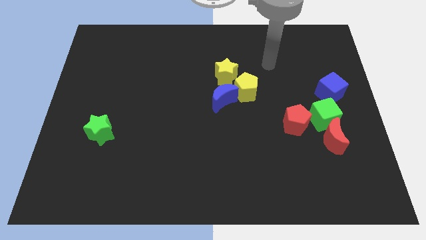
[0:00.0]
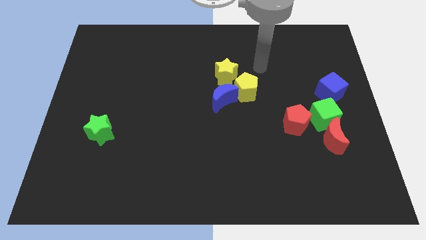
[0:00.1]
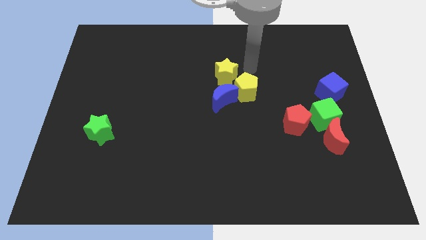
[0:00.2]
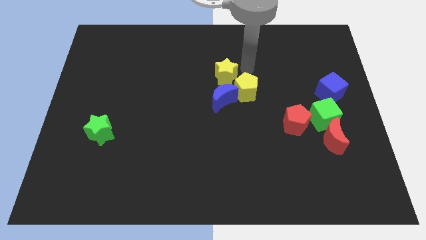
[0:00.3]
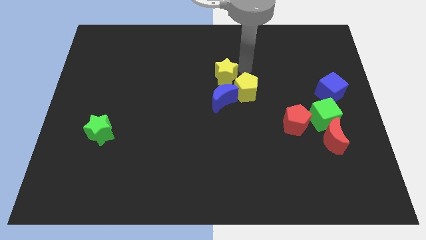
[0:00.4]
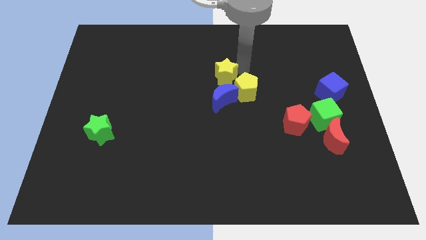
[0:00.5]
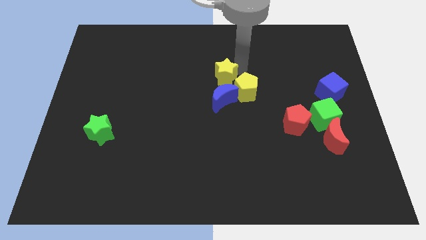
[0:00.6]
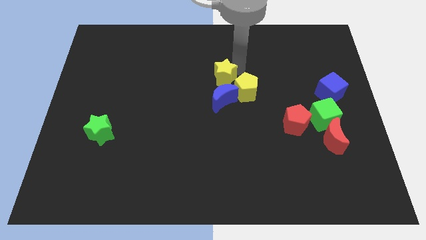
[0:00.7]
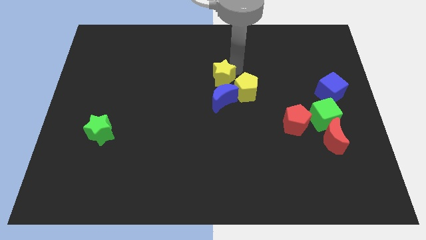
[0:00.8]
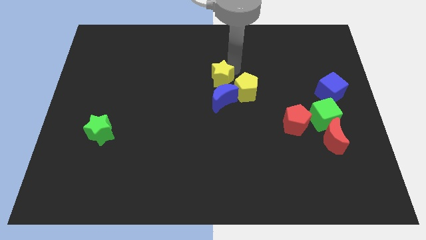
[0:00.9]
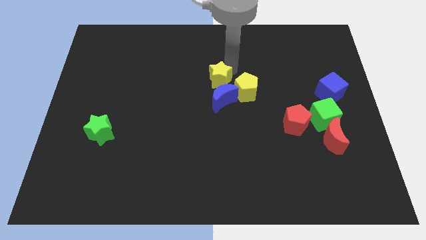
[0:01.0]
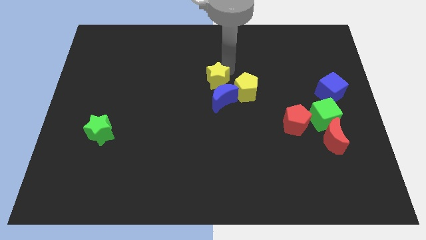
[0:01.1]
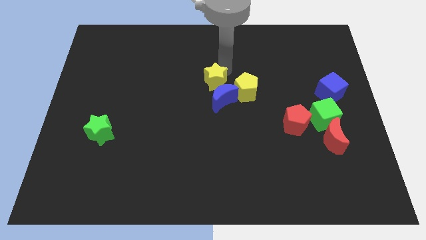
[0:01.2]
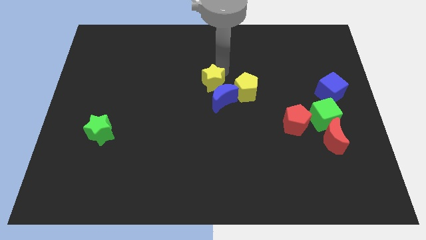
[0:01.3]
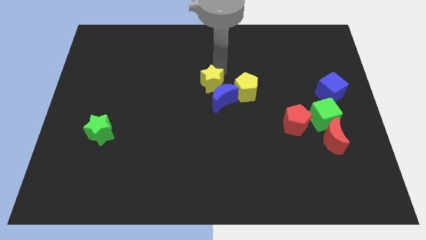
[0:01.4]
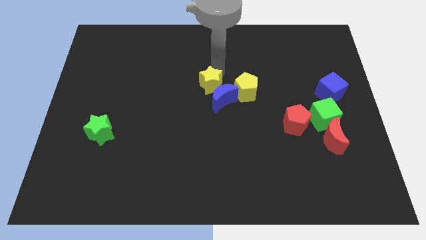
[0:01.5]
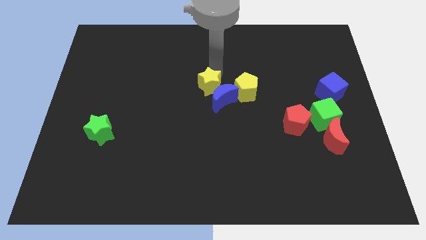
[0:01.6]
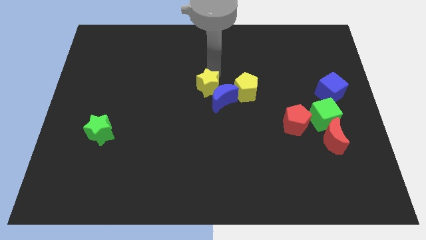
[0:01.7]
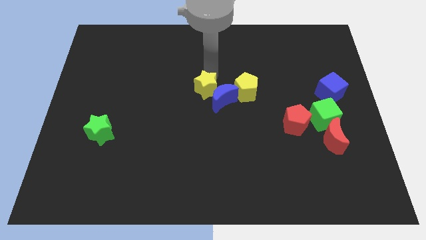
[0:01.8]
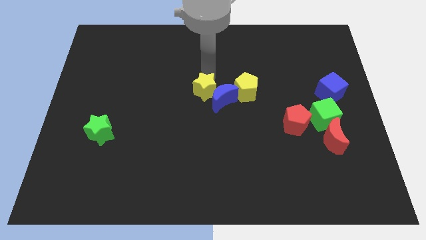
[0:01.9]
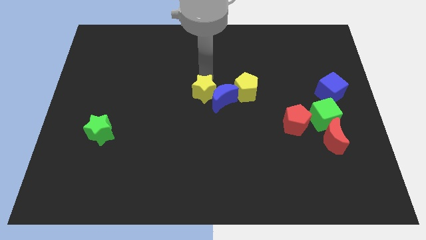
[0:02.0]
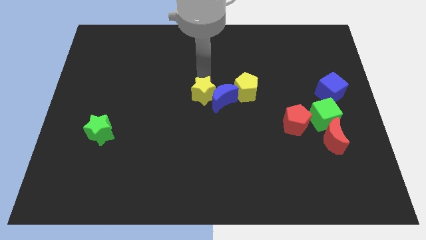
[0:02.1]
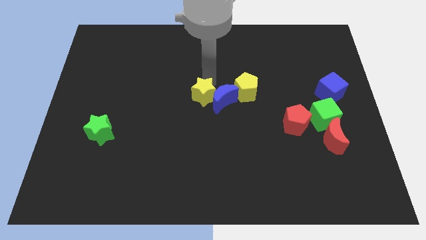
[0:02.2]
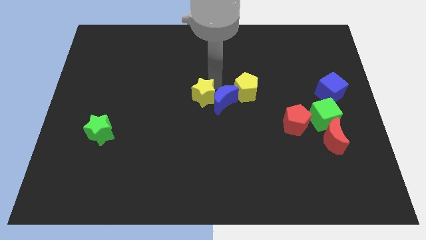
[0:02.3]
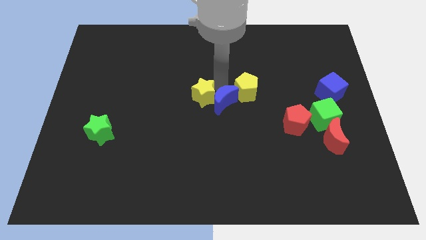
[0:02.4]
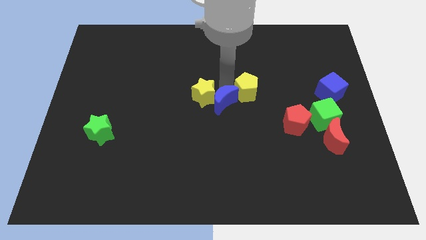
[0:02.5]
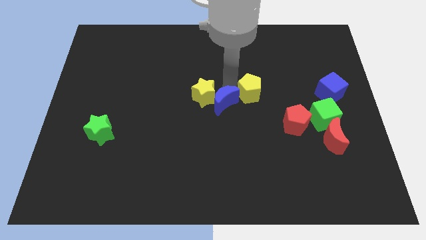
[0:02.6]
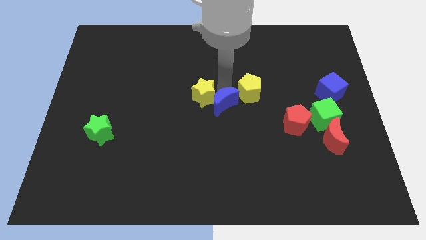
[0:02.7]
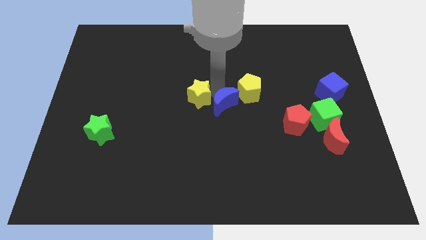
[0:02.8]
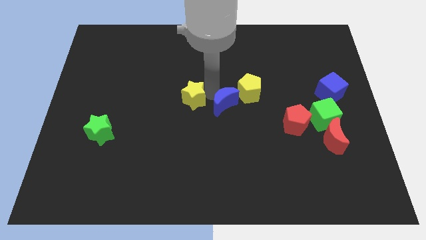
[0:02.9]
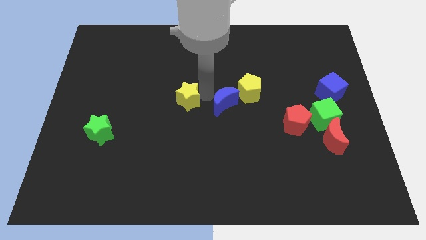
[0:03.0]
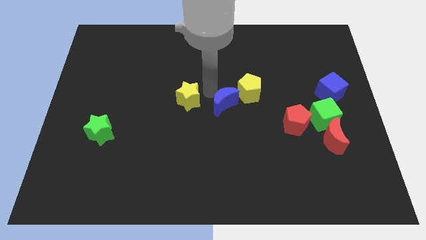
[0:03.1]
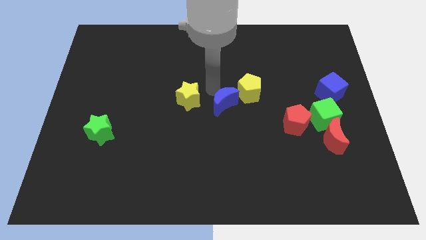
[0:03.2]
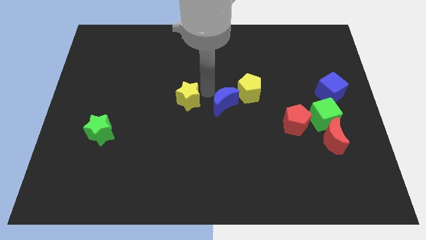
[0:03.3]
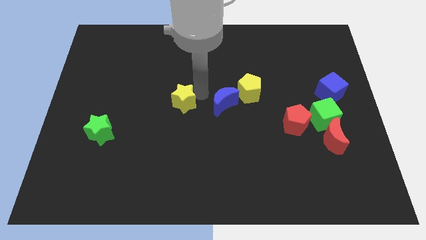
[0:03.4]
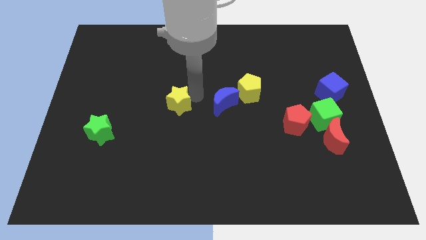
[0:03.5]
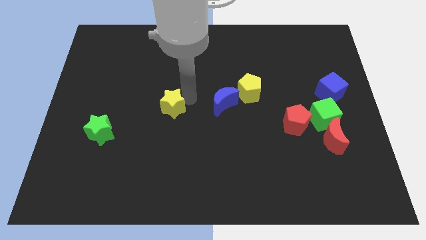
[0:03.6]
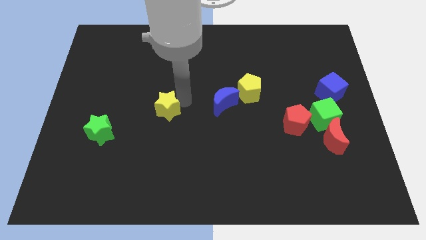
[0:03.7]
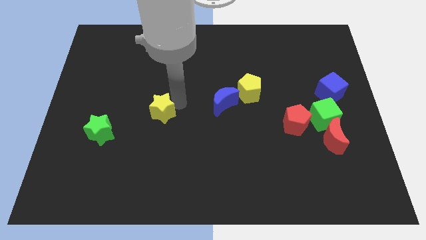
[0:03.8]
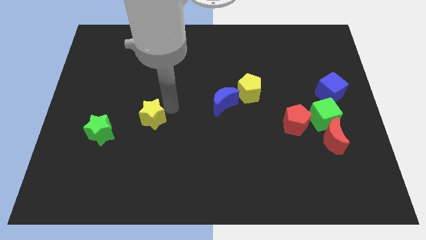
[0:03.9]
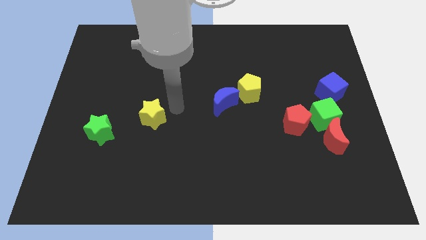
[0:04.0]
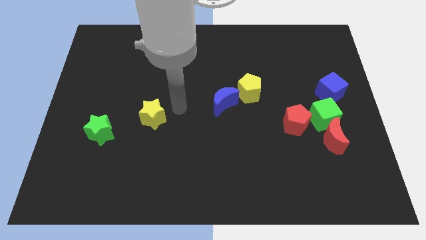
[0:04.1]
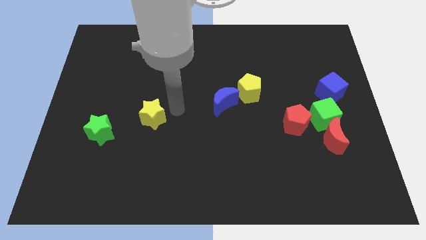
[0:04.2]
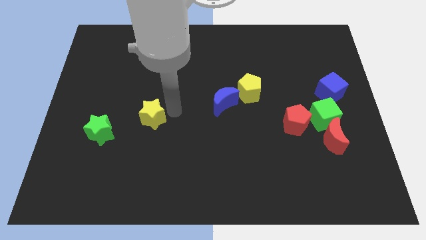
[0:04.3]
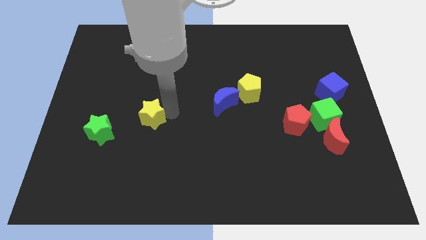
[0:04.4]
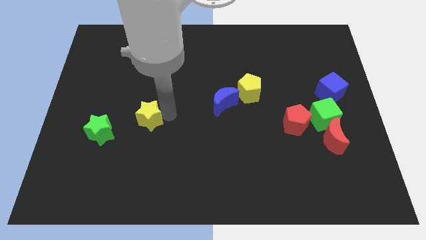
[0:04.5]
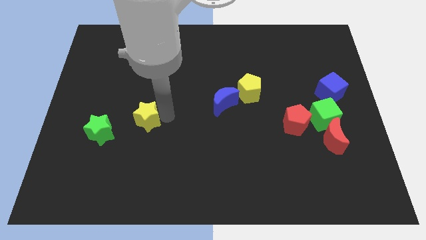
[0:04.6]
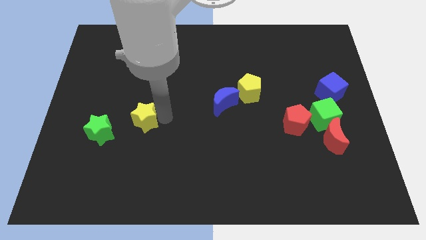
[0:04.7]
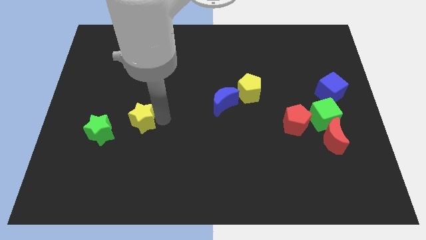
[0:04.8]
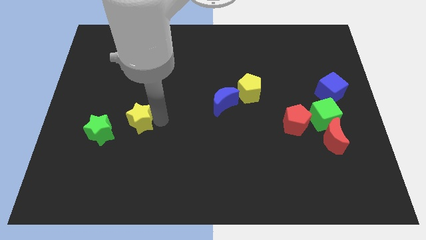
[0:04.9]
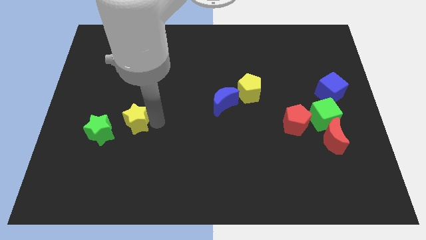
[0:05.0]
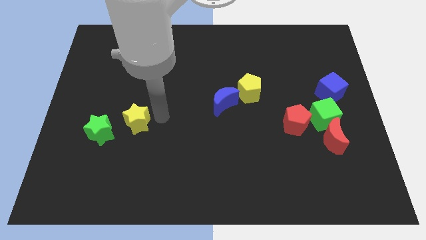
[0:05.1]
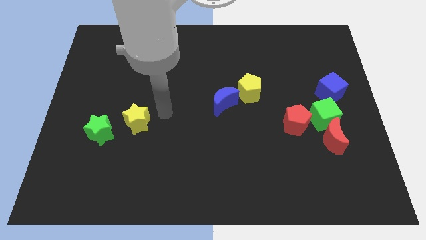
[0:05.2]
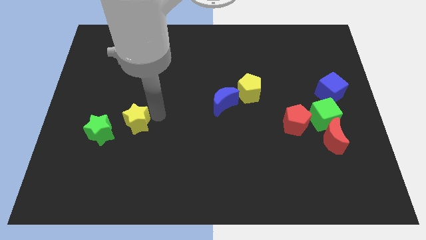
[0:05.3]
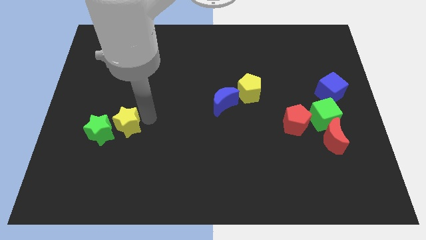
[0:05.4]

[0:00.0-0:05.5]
put the yellow star close to the green star

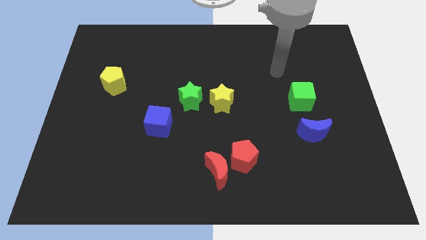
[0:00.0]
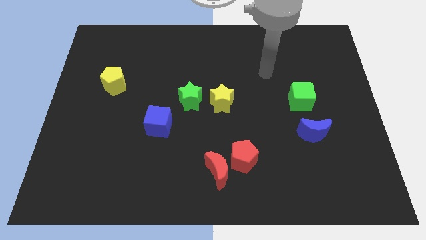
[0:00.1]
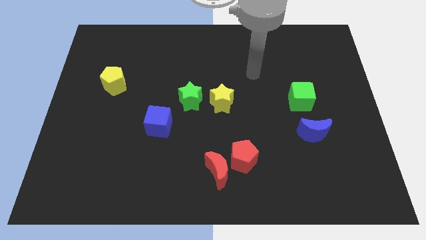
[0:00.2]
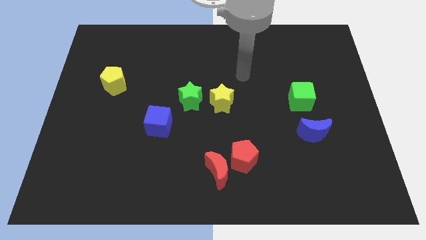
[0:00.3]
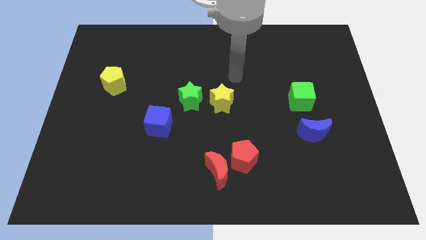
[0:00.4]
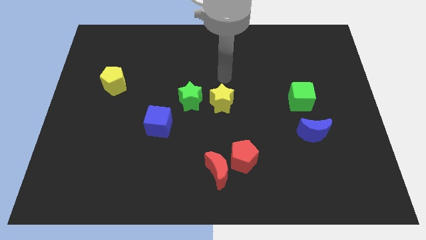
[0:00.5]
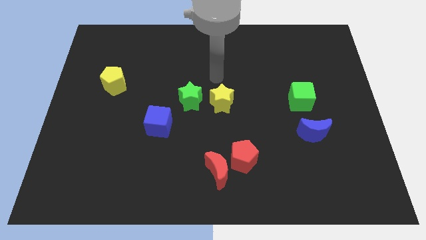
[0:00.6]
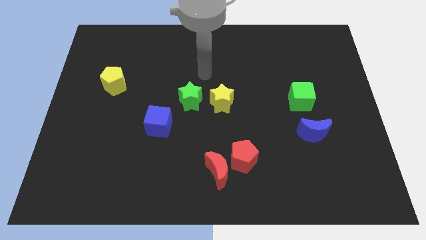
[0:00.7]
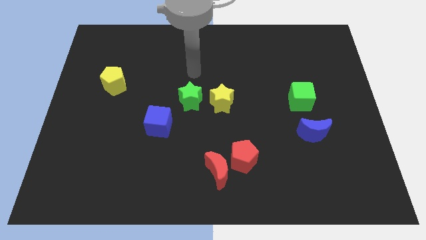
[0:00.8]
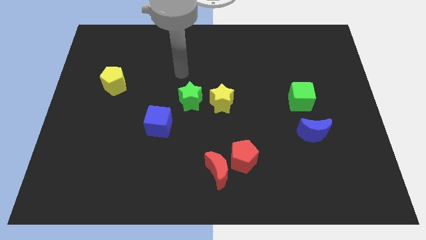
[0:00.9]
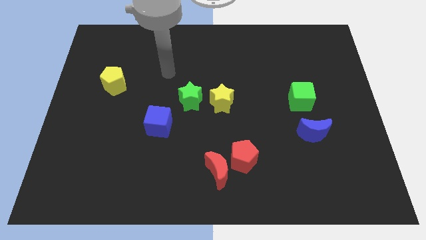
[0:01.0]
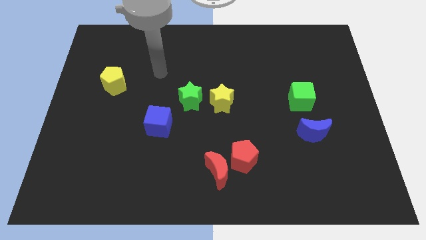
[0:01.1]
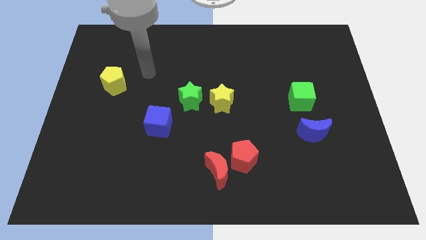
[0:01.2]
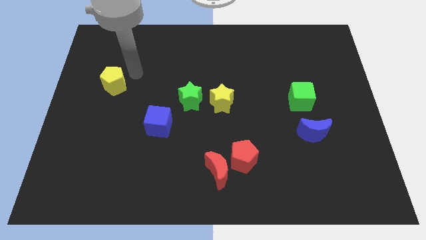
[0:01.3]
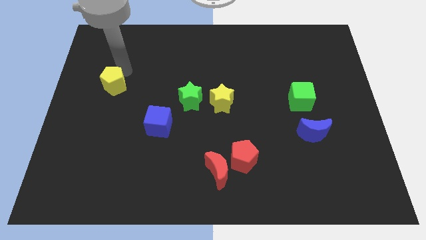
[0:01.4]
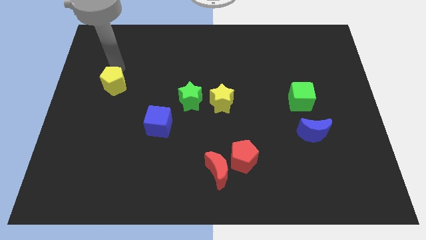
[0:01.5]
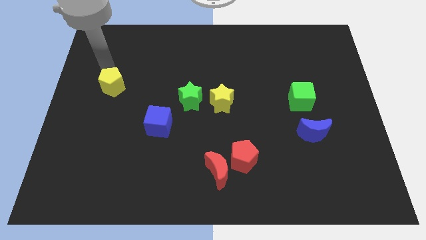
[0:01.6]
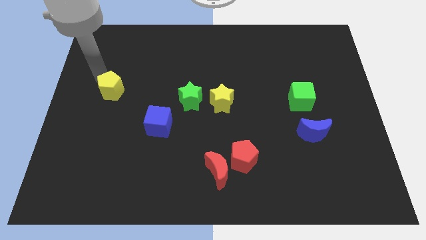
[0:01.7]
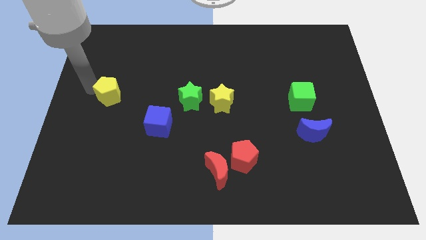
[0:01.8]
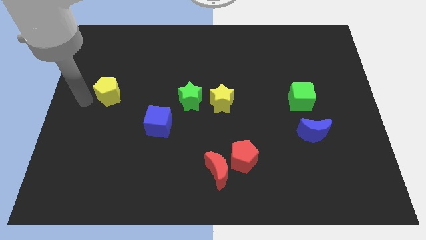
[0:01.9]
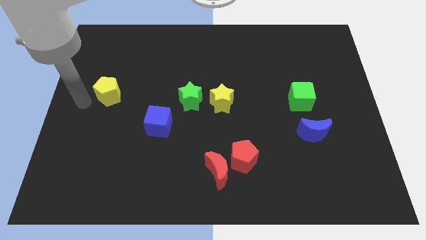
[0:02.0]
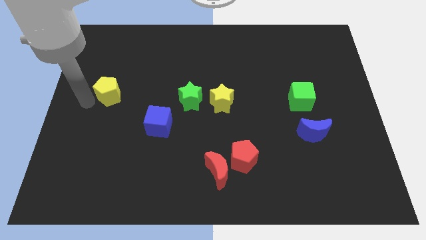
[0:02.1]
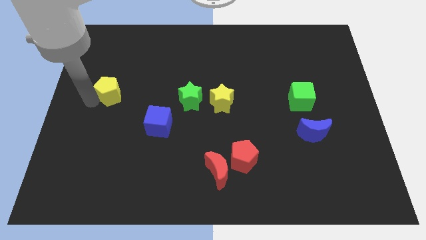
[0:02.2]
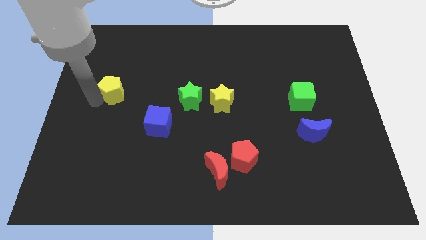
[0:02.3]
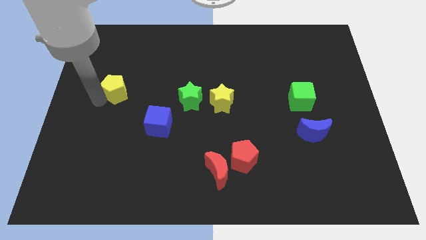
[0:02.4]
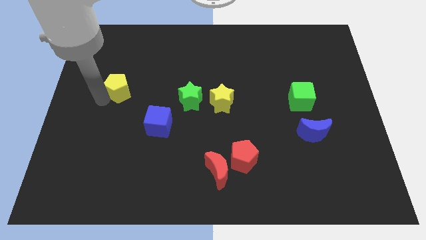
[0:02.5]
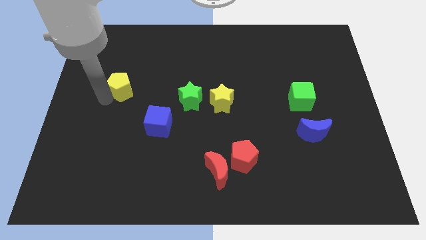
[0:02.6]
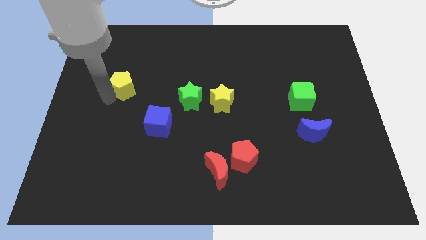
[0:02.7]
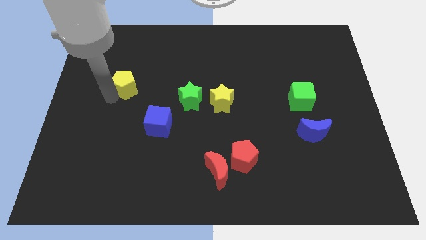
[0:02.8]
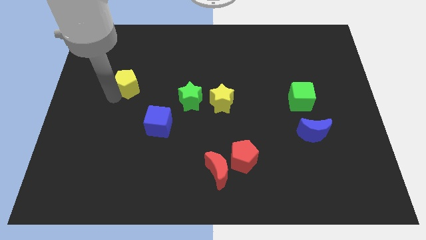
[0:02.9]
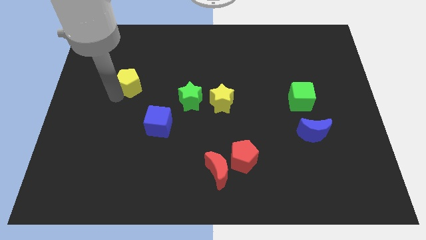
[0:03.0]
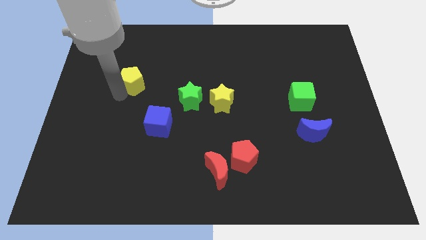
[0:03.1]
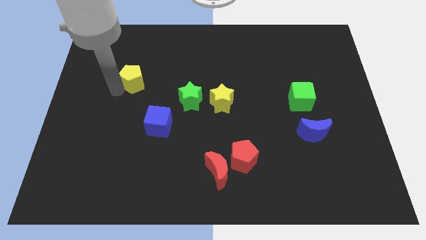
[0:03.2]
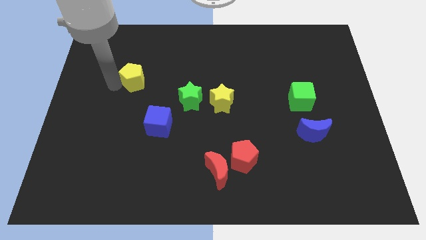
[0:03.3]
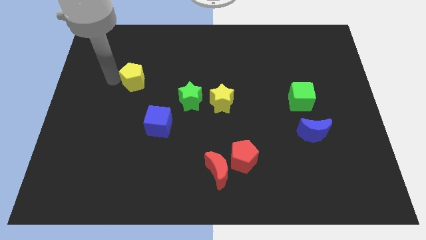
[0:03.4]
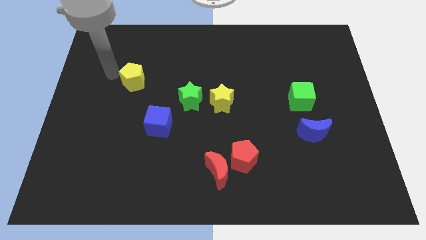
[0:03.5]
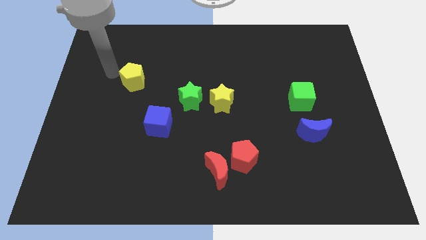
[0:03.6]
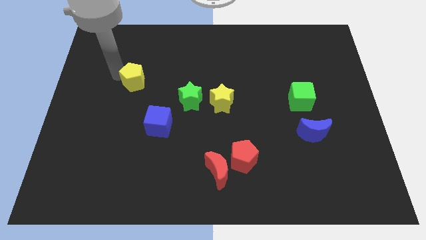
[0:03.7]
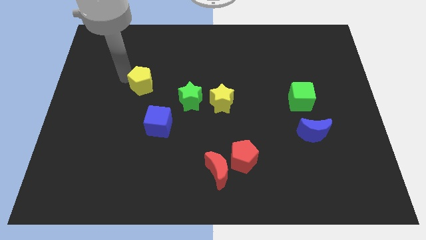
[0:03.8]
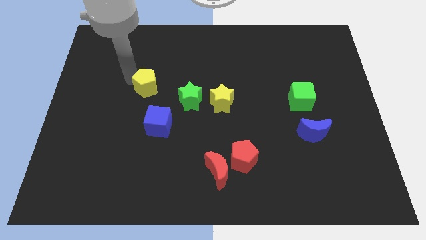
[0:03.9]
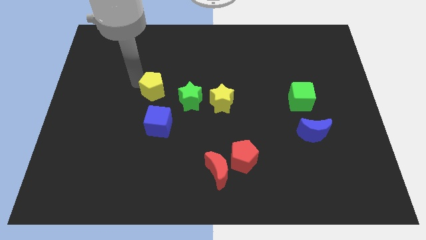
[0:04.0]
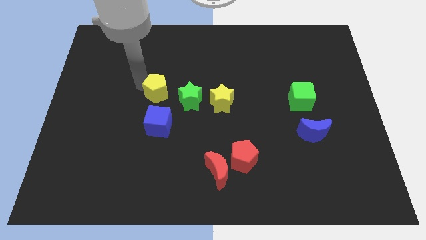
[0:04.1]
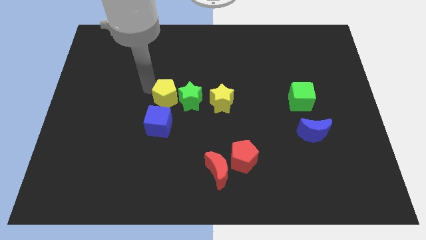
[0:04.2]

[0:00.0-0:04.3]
put the yellow pentagon next to the green star
